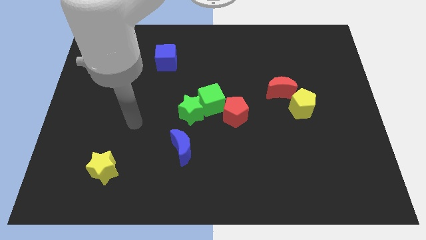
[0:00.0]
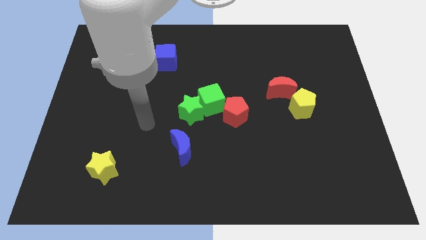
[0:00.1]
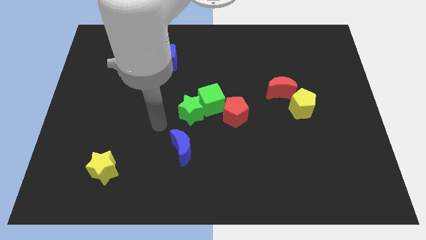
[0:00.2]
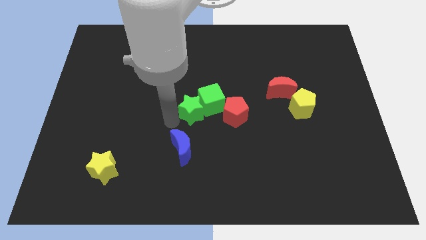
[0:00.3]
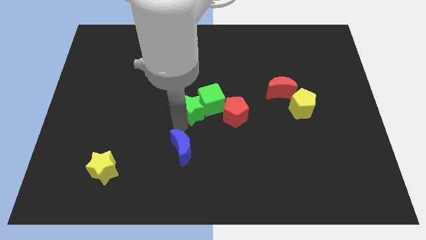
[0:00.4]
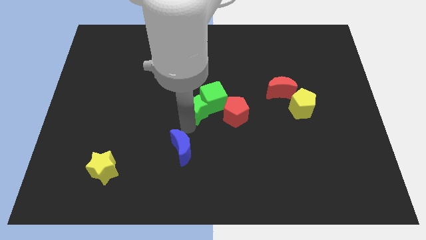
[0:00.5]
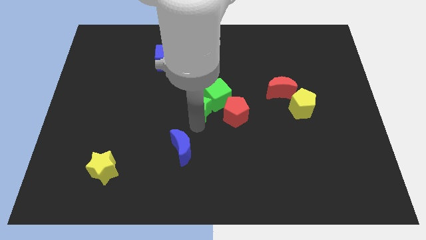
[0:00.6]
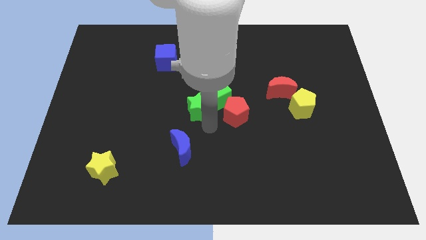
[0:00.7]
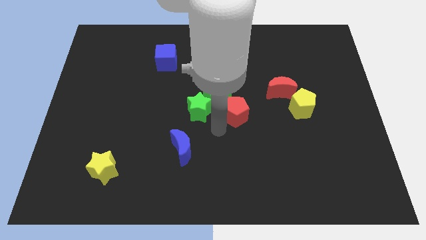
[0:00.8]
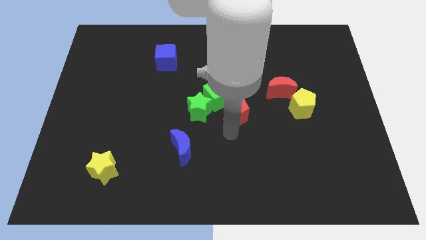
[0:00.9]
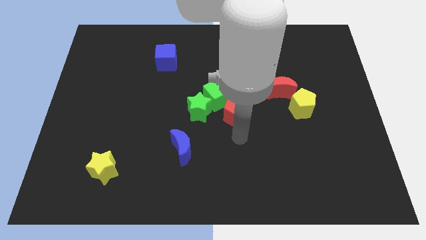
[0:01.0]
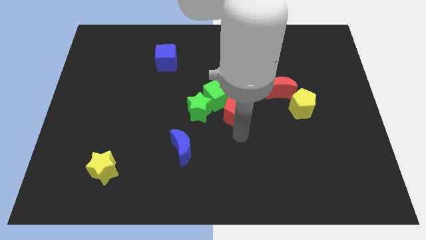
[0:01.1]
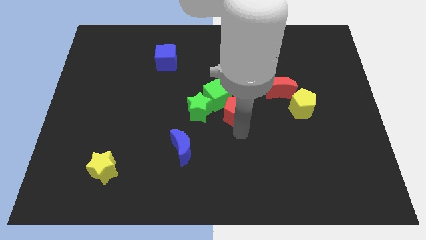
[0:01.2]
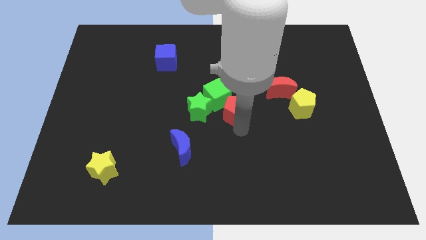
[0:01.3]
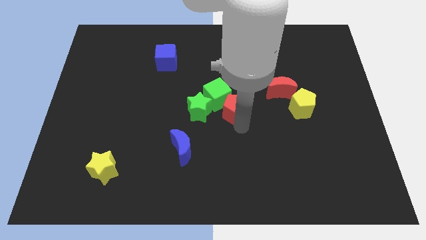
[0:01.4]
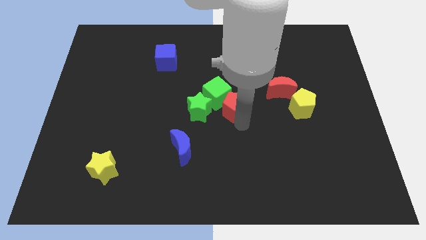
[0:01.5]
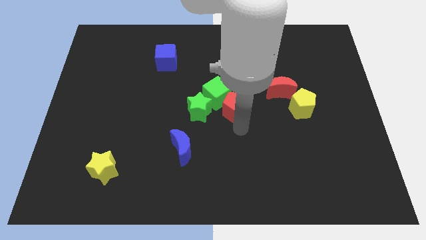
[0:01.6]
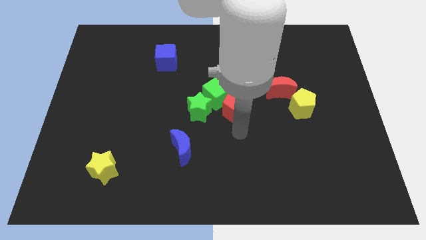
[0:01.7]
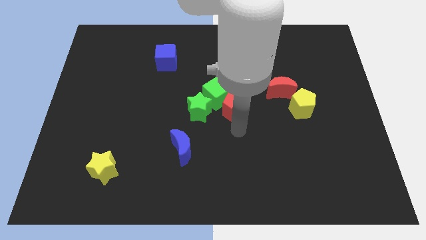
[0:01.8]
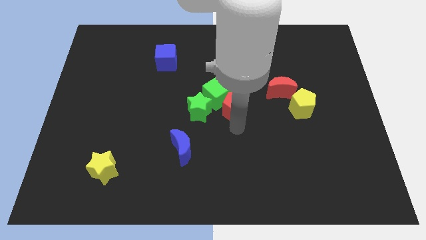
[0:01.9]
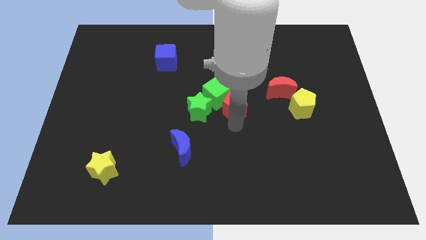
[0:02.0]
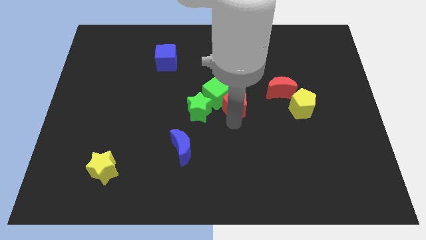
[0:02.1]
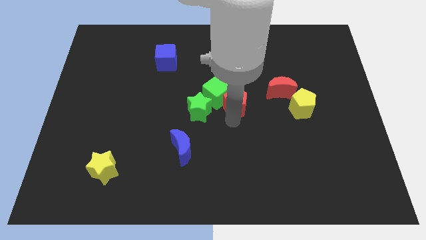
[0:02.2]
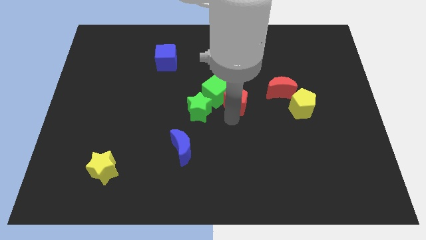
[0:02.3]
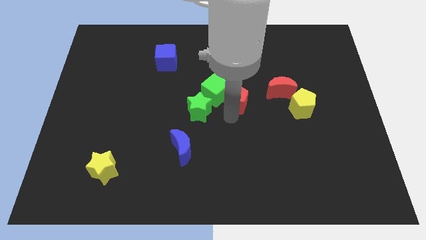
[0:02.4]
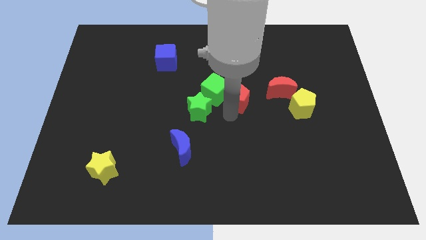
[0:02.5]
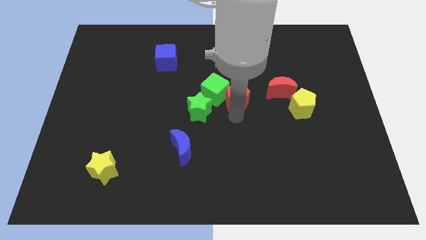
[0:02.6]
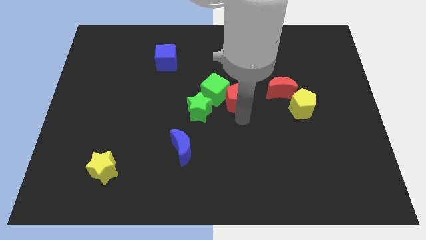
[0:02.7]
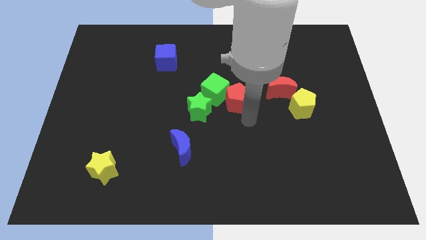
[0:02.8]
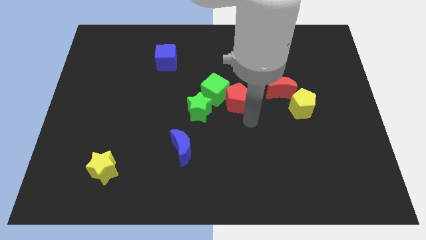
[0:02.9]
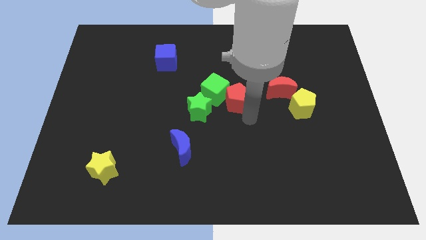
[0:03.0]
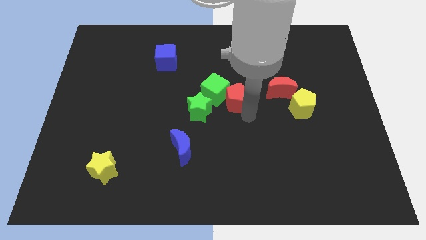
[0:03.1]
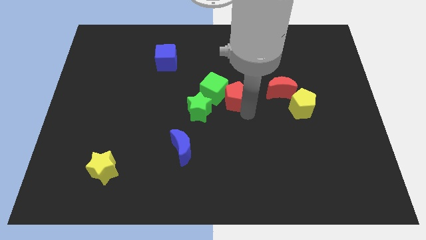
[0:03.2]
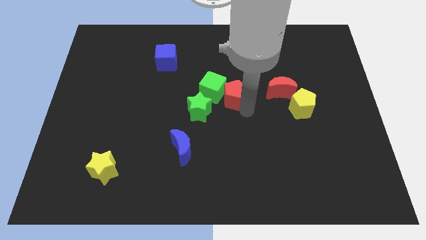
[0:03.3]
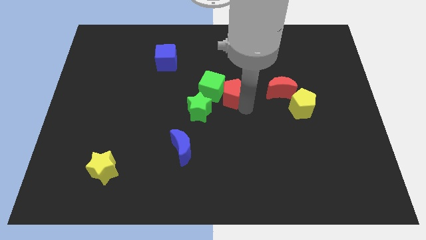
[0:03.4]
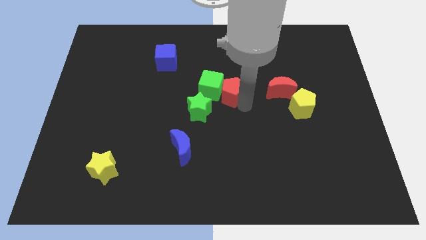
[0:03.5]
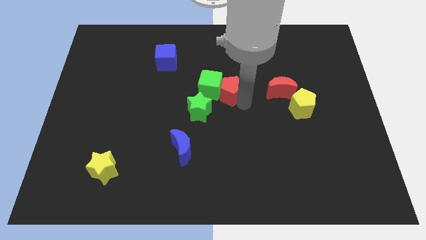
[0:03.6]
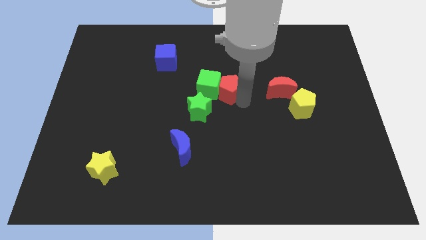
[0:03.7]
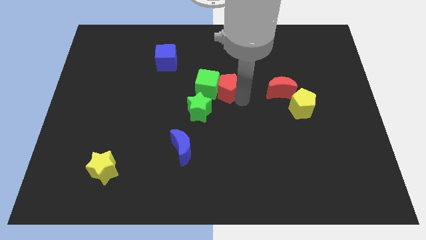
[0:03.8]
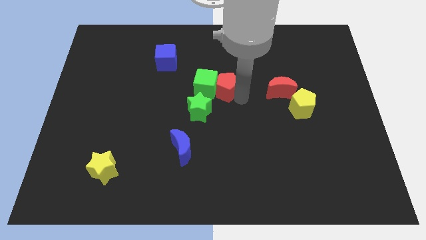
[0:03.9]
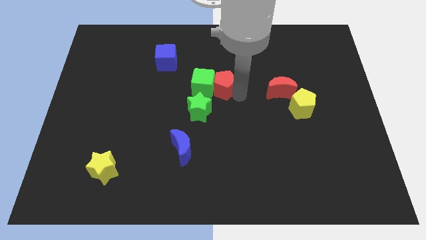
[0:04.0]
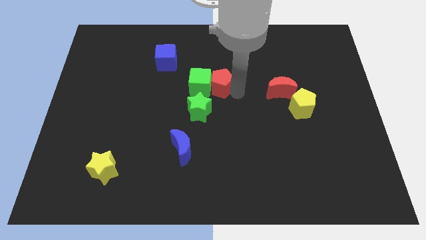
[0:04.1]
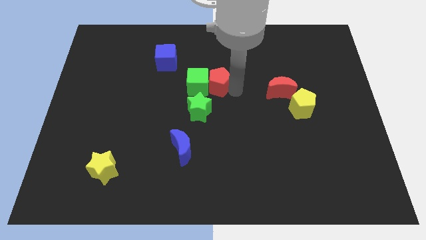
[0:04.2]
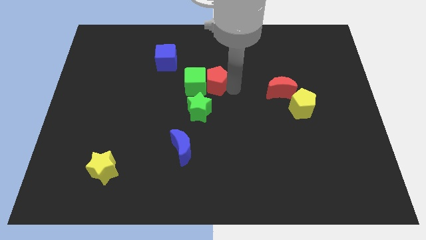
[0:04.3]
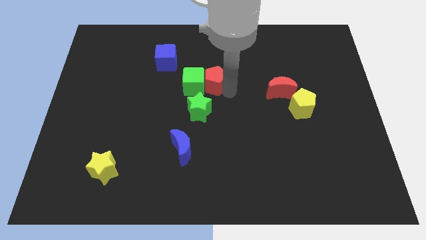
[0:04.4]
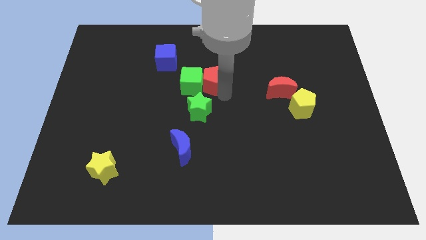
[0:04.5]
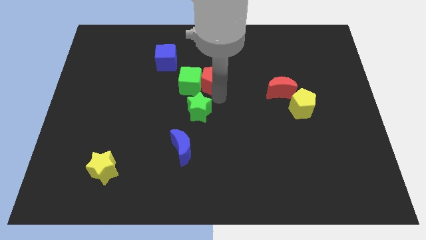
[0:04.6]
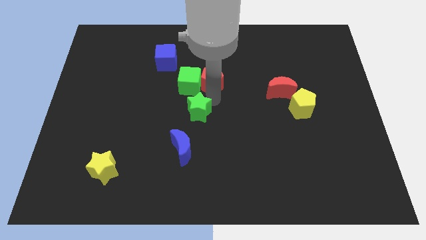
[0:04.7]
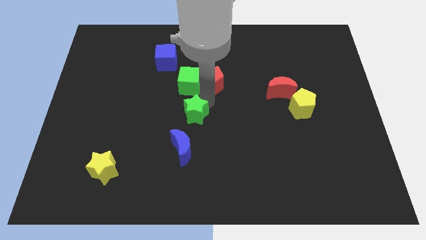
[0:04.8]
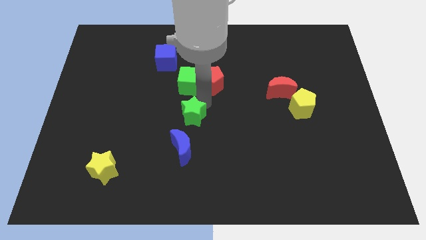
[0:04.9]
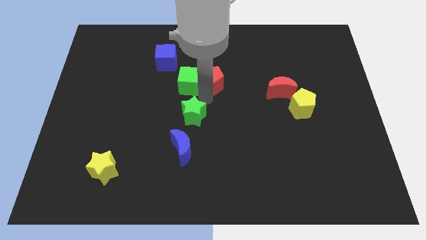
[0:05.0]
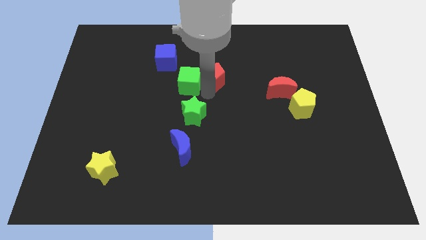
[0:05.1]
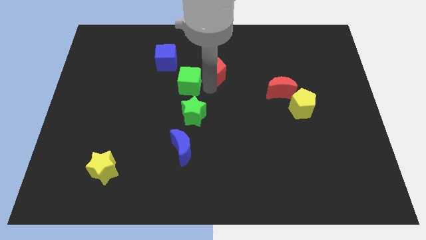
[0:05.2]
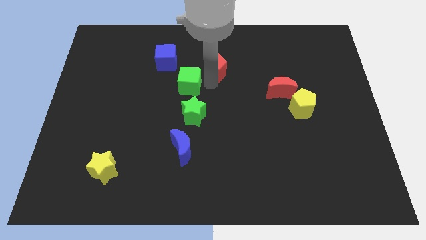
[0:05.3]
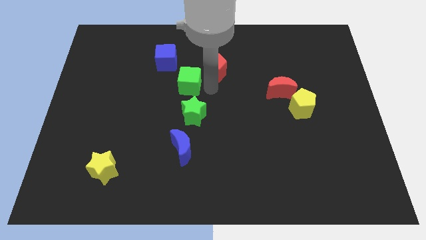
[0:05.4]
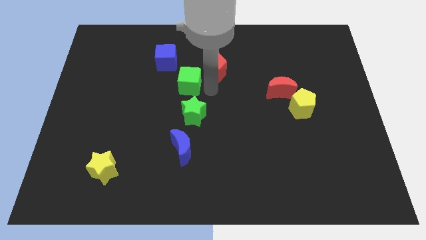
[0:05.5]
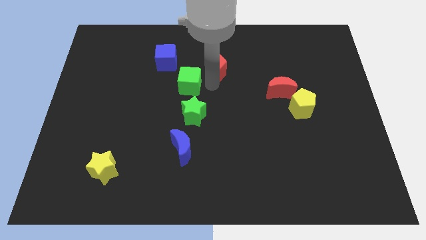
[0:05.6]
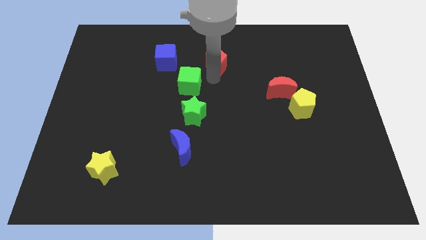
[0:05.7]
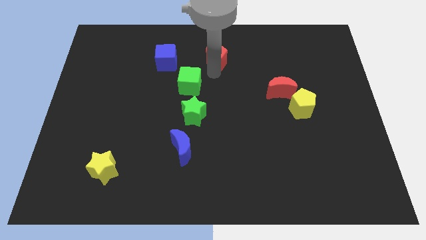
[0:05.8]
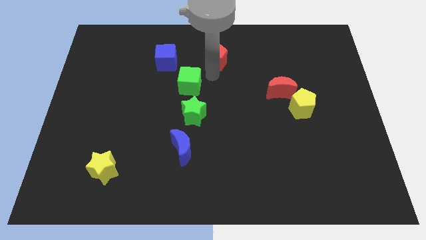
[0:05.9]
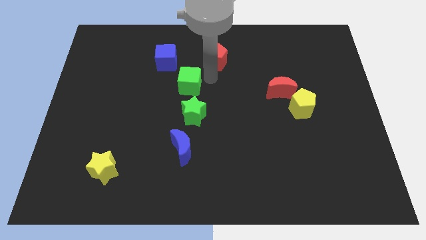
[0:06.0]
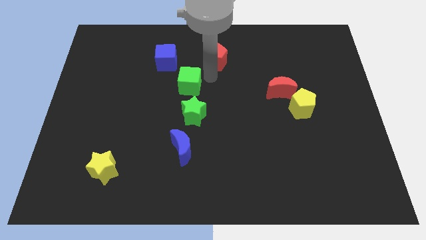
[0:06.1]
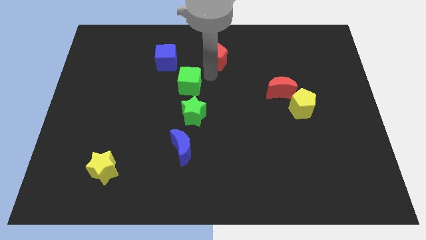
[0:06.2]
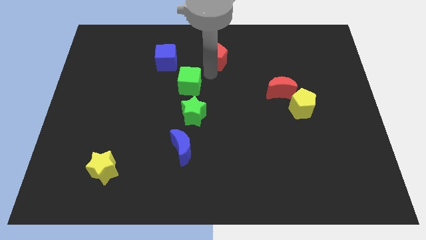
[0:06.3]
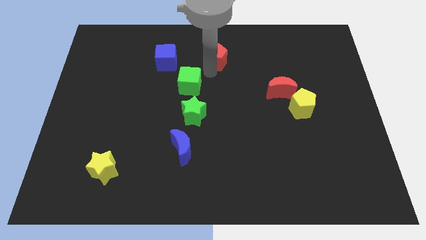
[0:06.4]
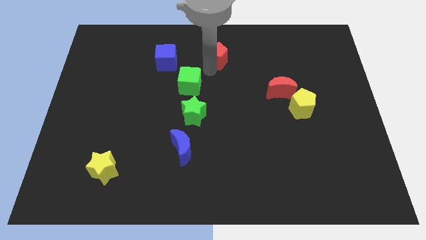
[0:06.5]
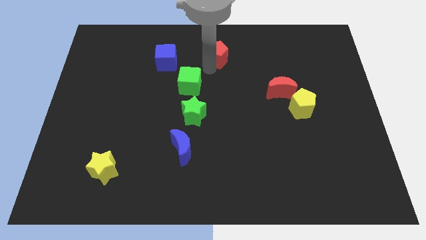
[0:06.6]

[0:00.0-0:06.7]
slide the red pentagon to the top
